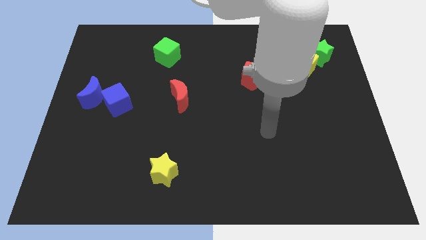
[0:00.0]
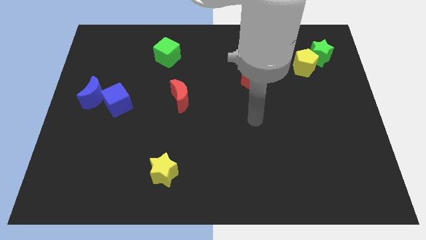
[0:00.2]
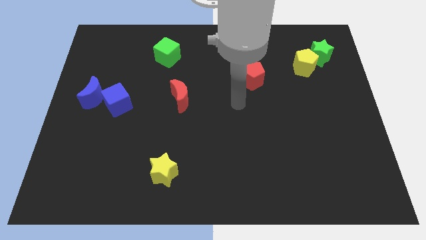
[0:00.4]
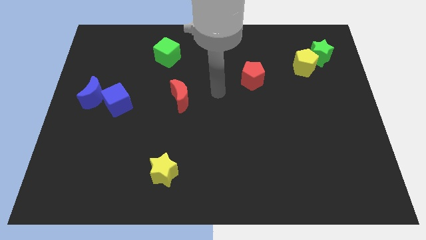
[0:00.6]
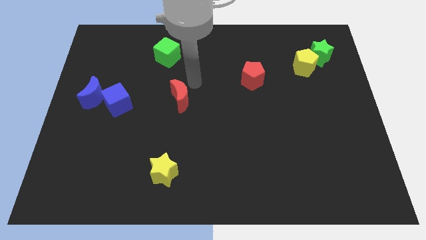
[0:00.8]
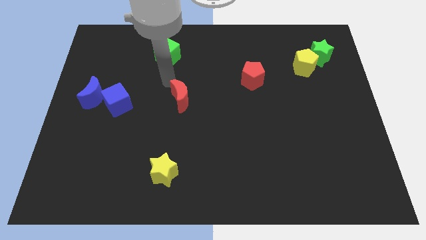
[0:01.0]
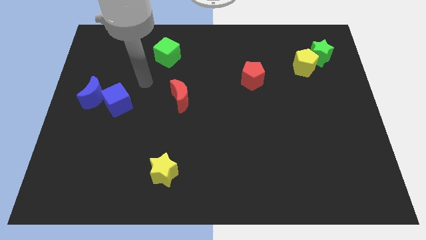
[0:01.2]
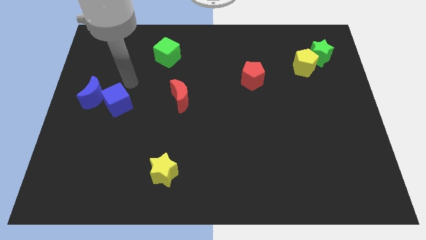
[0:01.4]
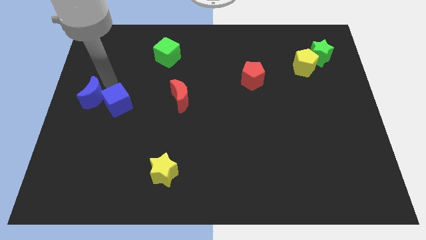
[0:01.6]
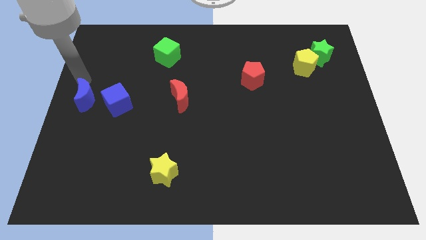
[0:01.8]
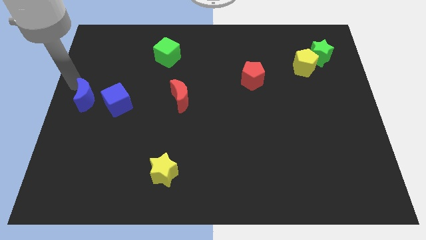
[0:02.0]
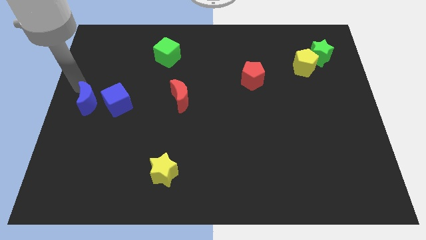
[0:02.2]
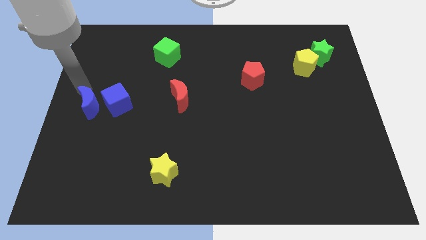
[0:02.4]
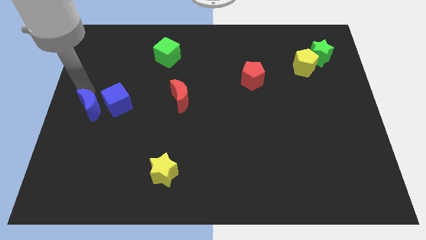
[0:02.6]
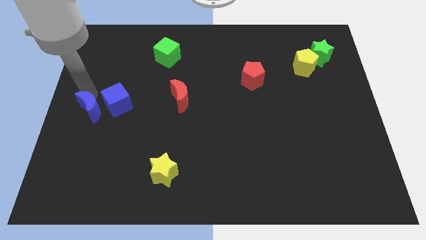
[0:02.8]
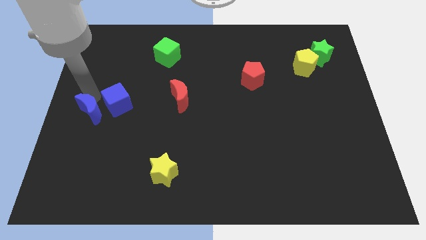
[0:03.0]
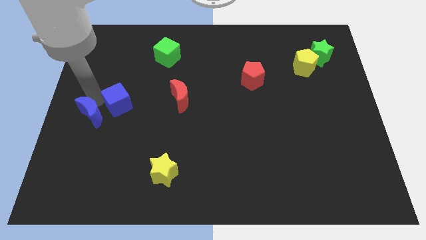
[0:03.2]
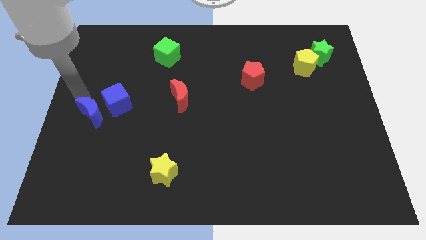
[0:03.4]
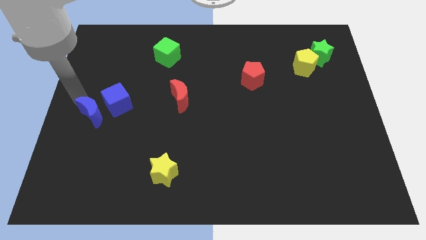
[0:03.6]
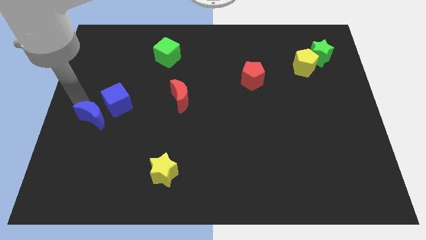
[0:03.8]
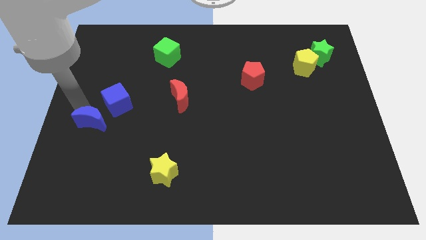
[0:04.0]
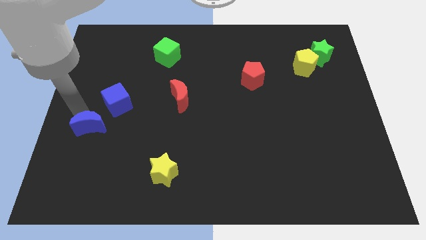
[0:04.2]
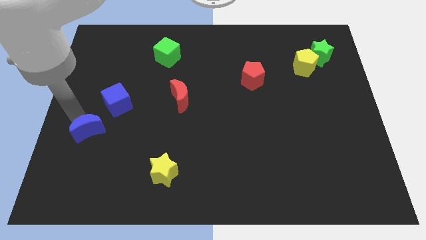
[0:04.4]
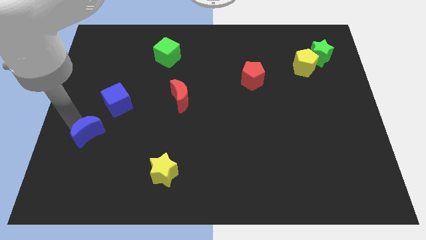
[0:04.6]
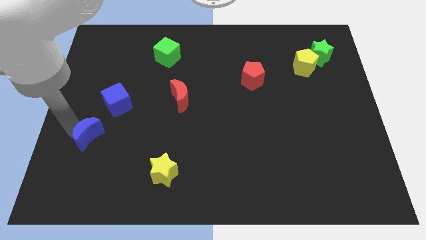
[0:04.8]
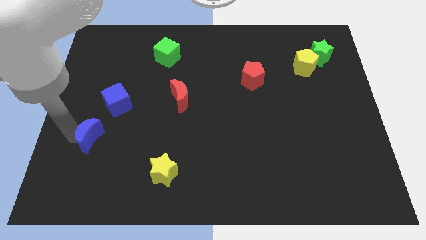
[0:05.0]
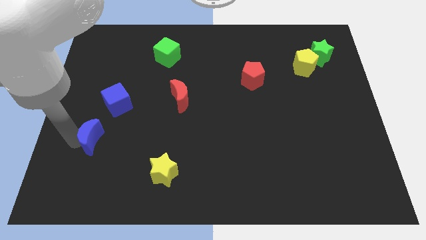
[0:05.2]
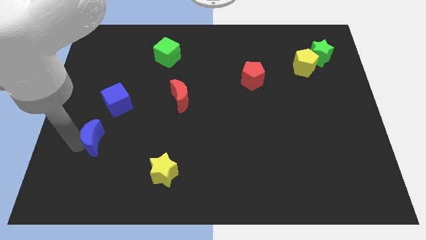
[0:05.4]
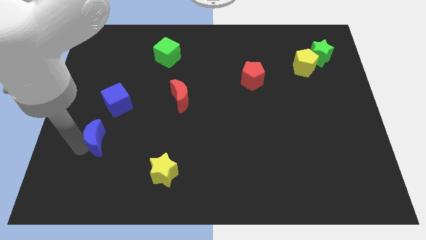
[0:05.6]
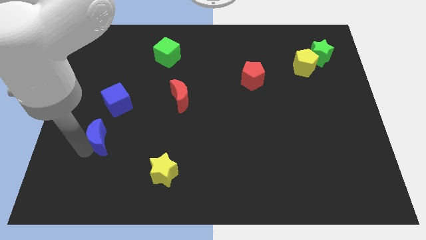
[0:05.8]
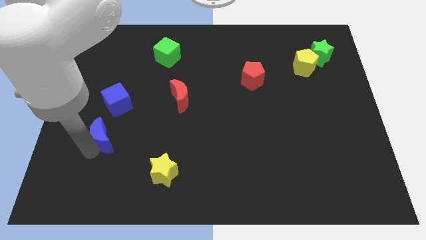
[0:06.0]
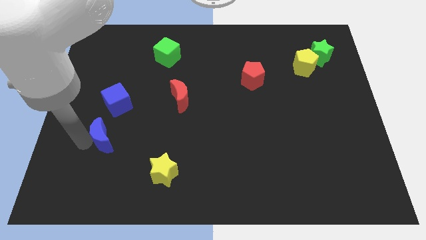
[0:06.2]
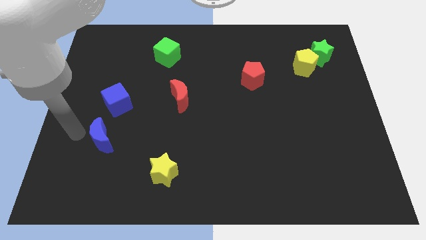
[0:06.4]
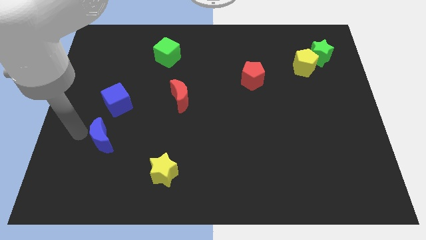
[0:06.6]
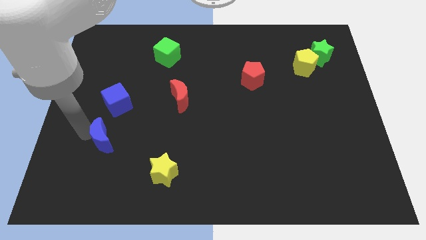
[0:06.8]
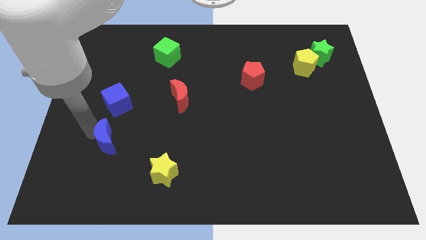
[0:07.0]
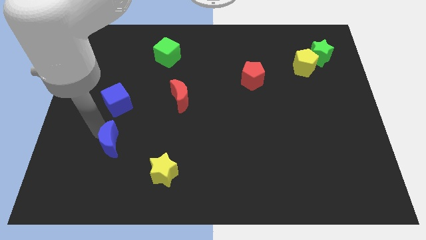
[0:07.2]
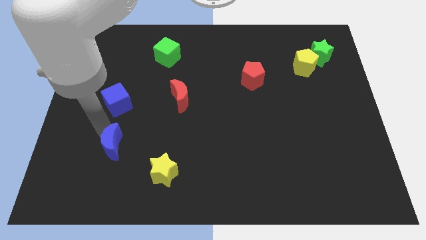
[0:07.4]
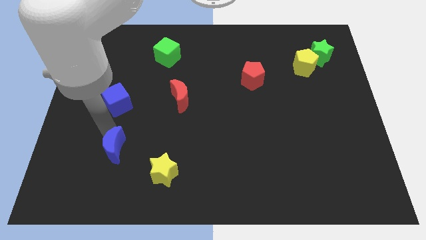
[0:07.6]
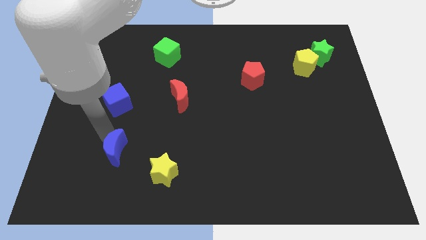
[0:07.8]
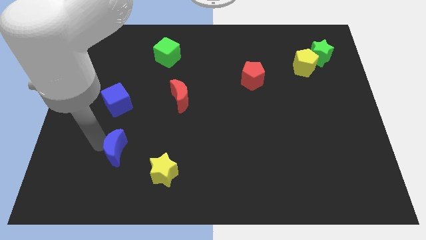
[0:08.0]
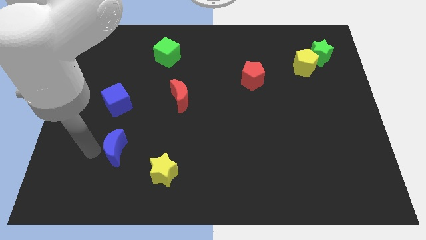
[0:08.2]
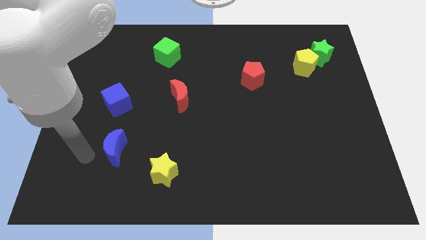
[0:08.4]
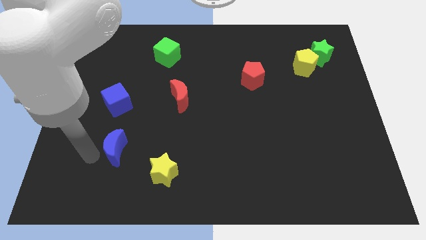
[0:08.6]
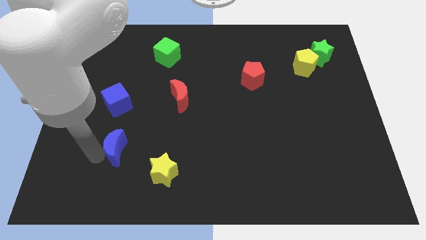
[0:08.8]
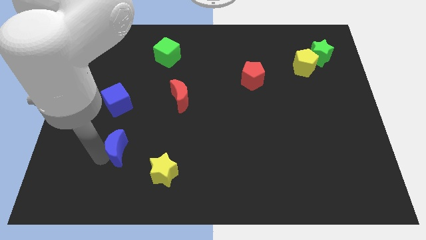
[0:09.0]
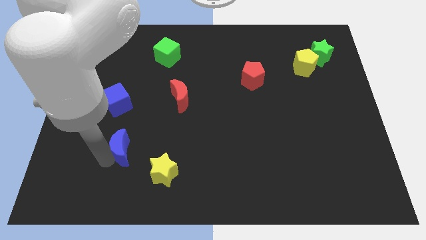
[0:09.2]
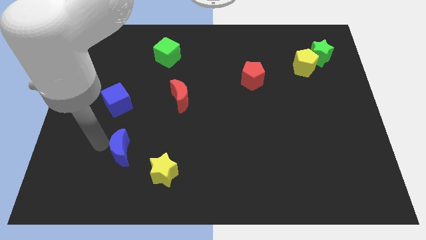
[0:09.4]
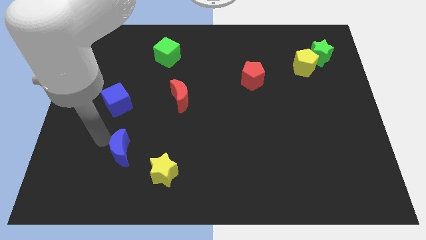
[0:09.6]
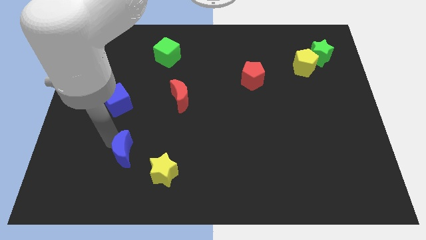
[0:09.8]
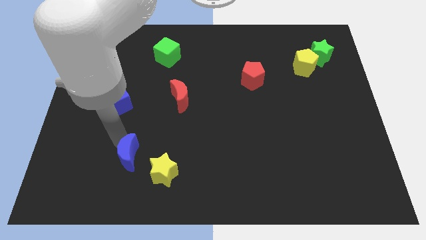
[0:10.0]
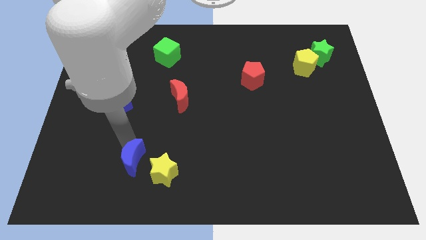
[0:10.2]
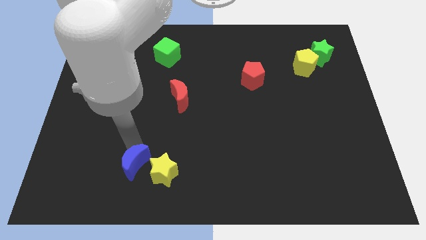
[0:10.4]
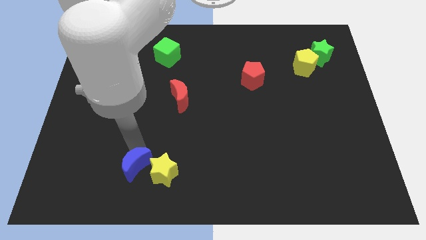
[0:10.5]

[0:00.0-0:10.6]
push the blue moon towards the yellow star

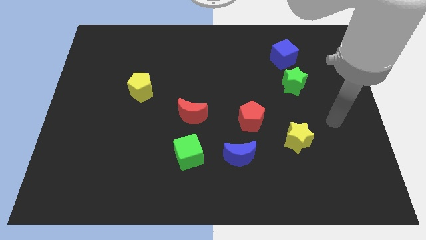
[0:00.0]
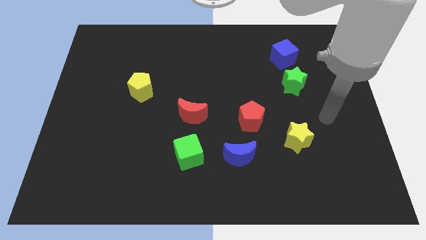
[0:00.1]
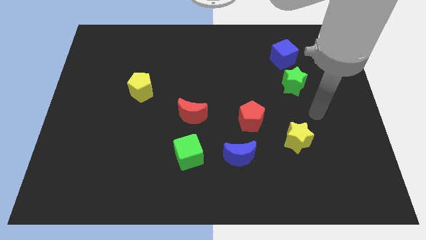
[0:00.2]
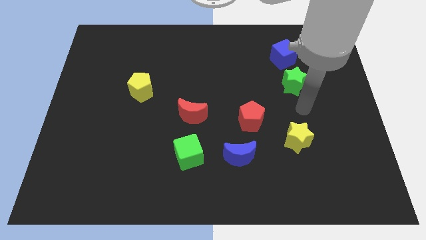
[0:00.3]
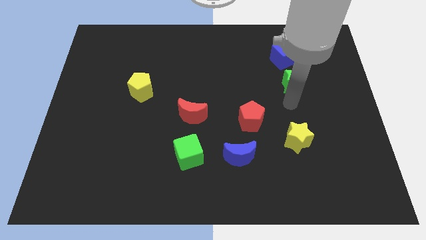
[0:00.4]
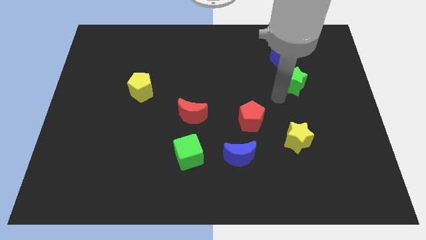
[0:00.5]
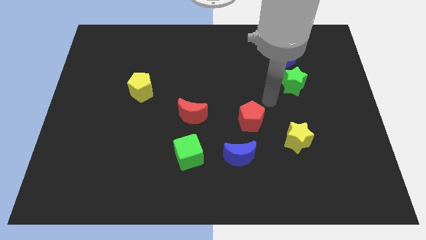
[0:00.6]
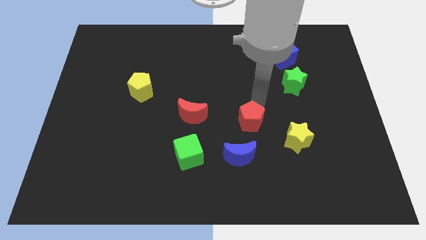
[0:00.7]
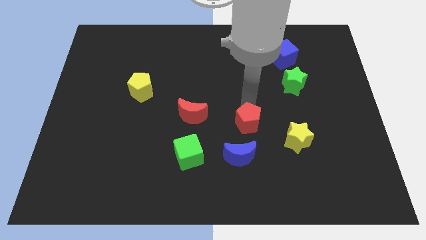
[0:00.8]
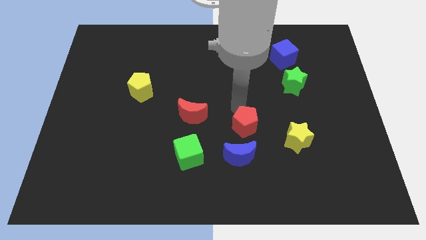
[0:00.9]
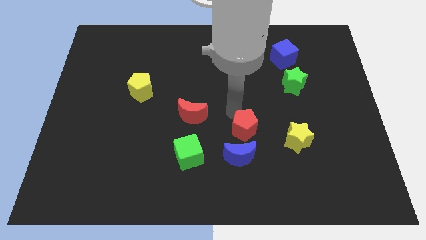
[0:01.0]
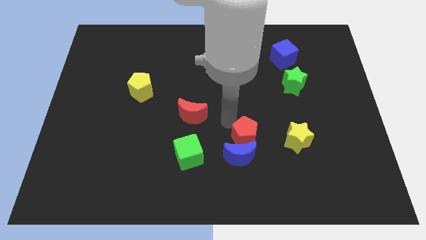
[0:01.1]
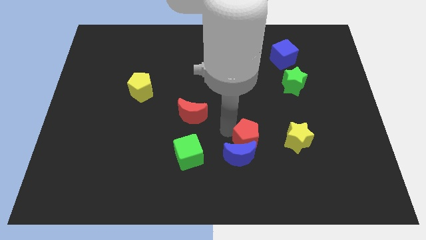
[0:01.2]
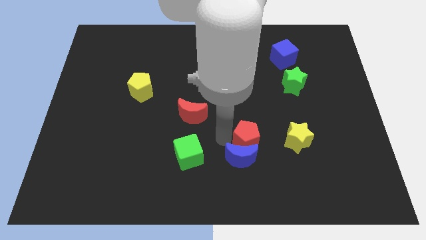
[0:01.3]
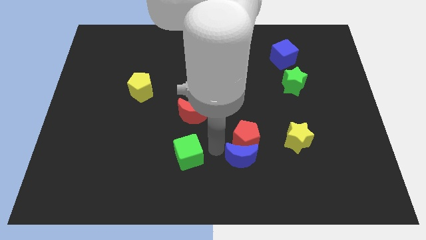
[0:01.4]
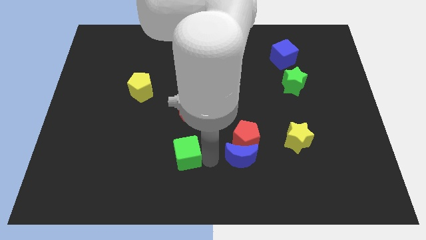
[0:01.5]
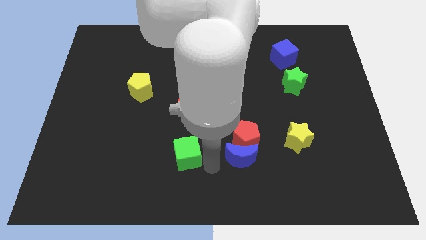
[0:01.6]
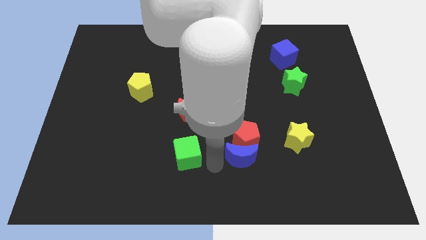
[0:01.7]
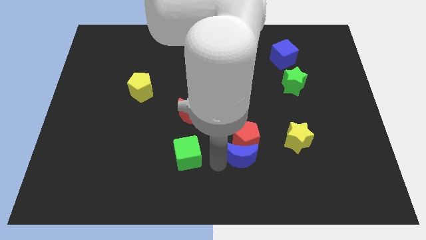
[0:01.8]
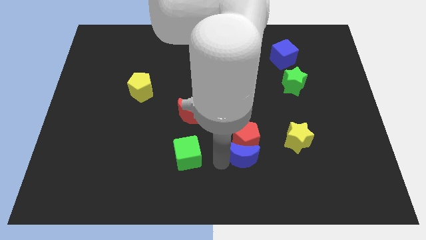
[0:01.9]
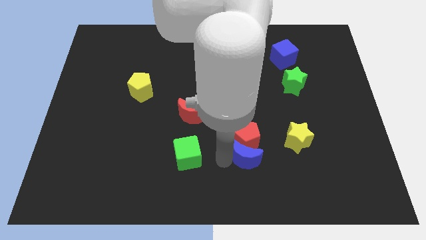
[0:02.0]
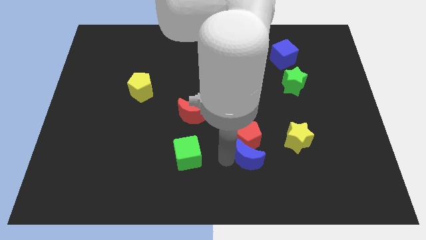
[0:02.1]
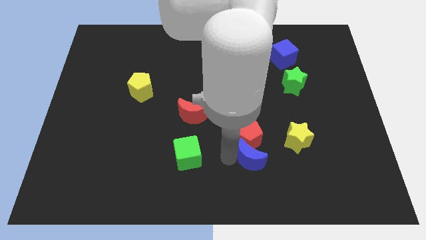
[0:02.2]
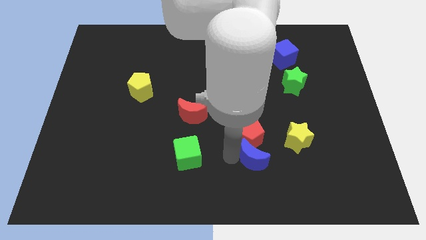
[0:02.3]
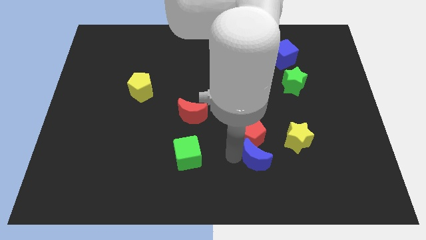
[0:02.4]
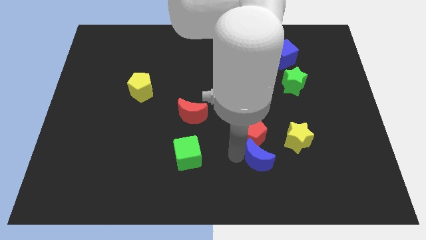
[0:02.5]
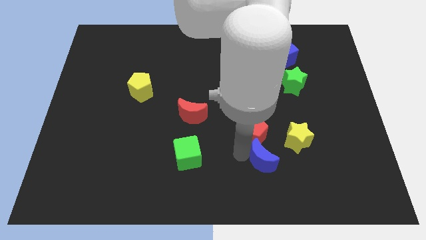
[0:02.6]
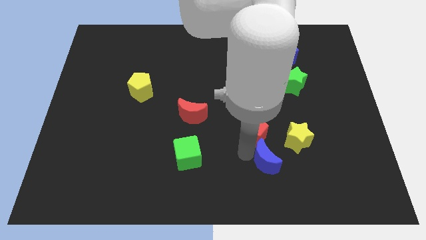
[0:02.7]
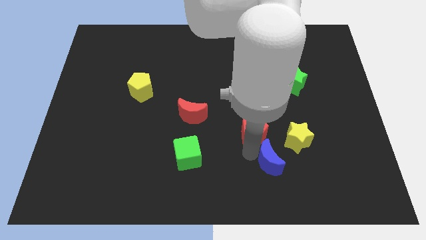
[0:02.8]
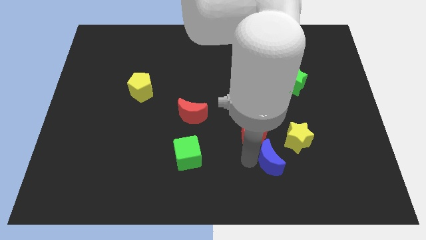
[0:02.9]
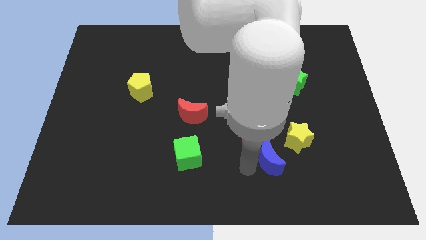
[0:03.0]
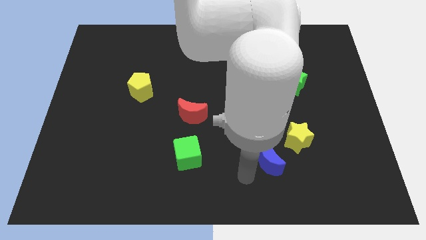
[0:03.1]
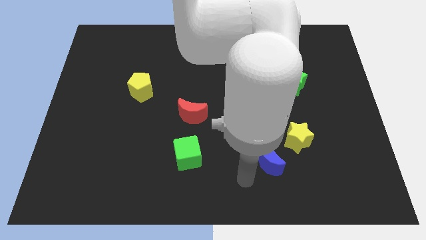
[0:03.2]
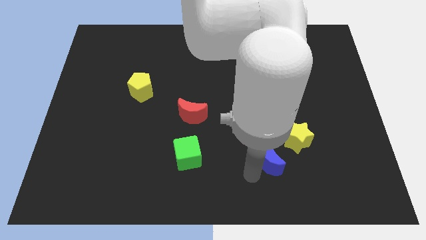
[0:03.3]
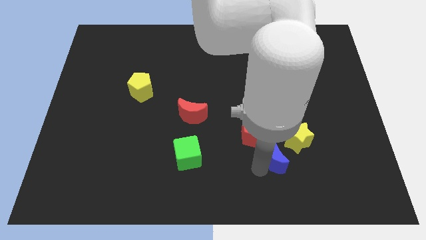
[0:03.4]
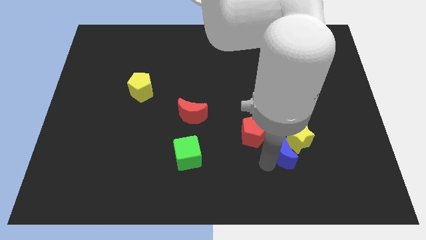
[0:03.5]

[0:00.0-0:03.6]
put the blue moon towards the yellow star
